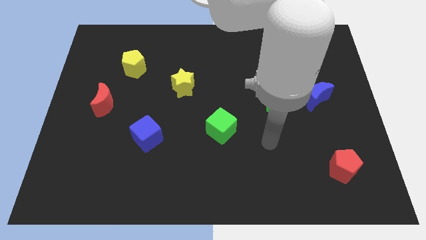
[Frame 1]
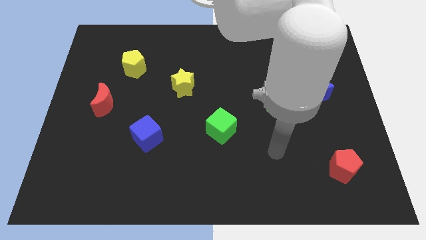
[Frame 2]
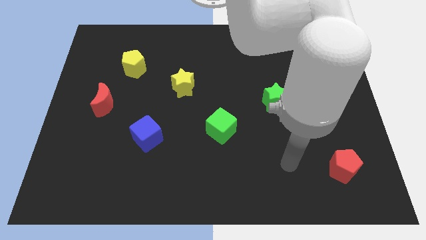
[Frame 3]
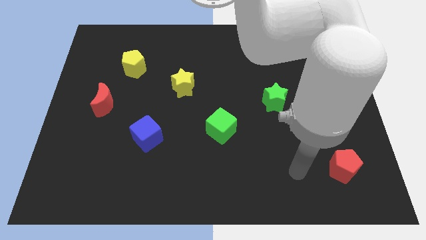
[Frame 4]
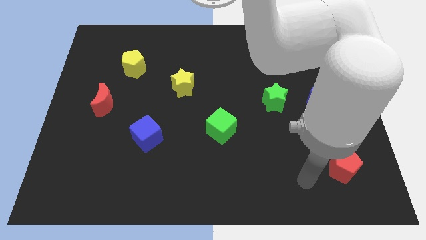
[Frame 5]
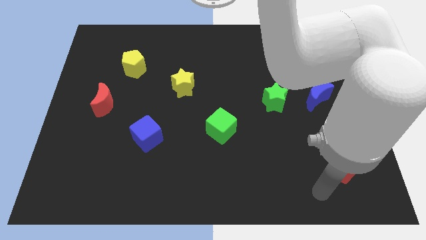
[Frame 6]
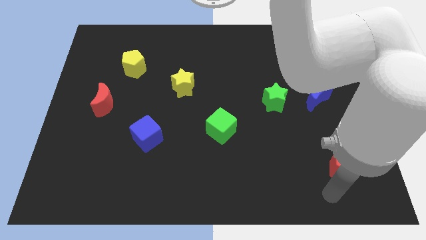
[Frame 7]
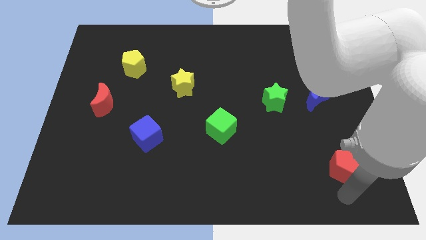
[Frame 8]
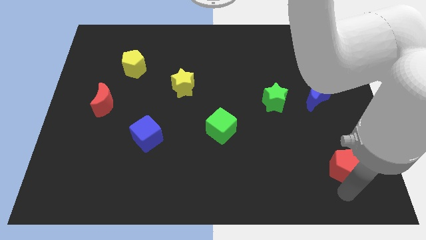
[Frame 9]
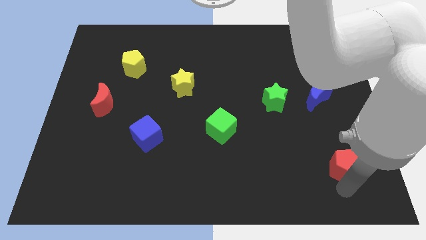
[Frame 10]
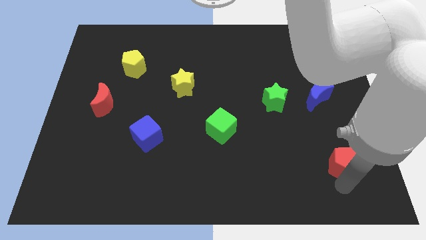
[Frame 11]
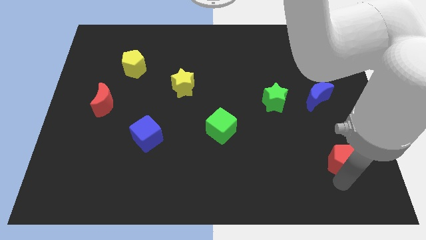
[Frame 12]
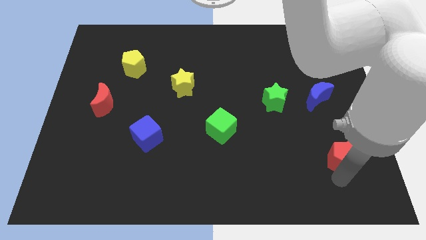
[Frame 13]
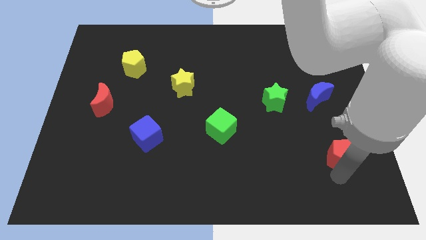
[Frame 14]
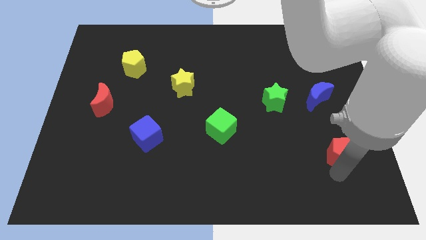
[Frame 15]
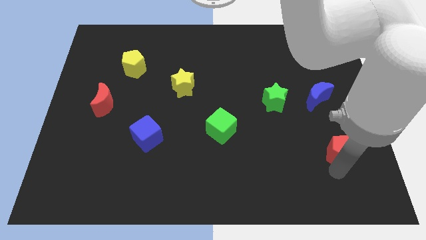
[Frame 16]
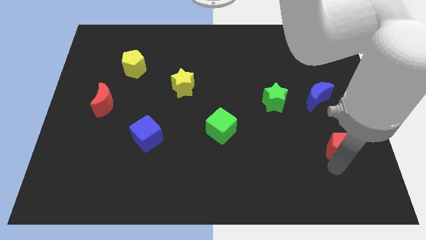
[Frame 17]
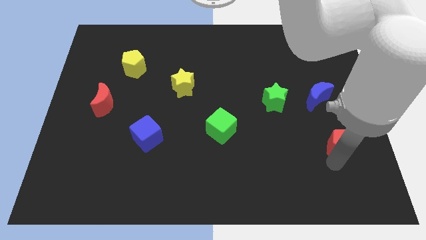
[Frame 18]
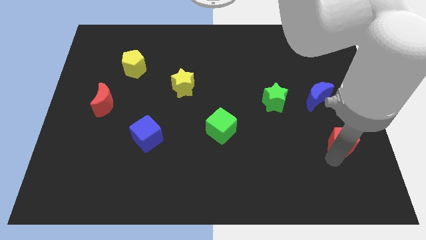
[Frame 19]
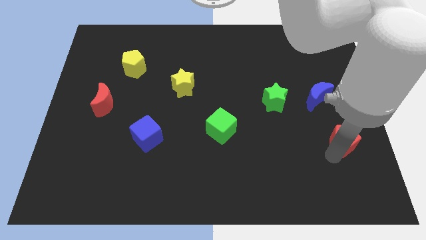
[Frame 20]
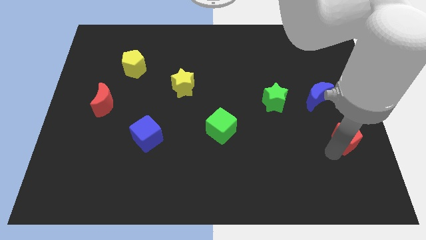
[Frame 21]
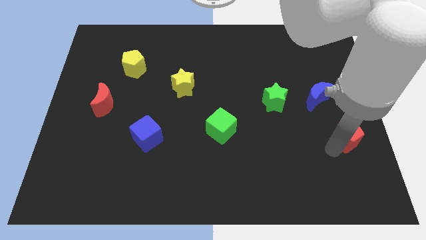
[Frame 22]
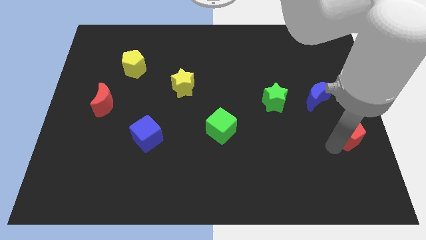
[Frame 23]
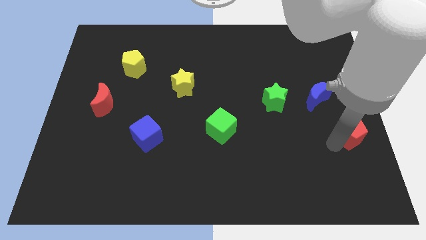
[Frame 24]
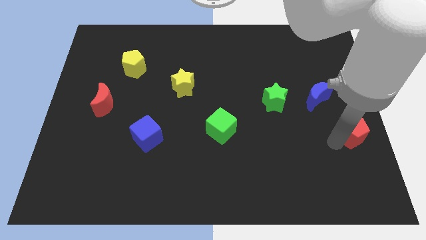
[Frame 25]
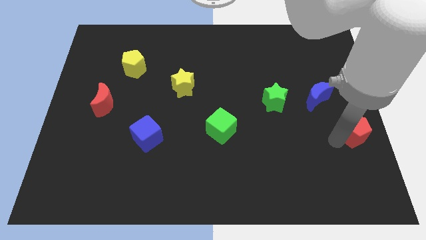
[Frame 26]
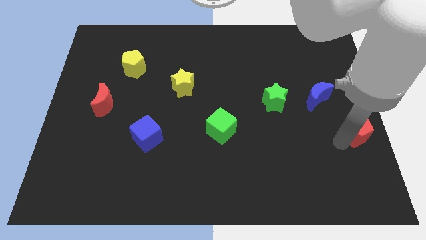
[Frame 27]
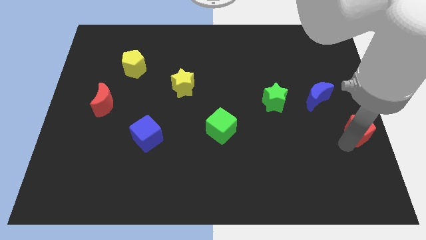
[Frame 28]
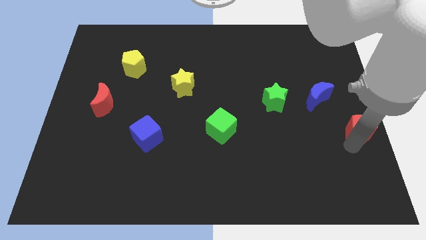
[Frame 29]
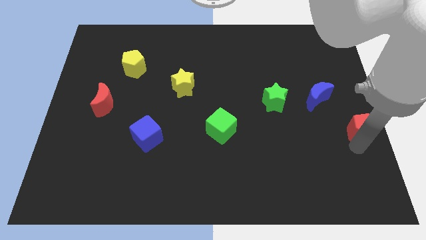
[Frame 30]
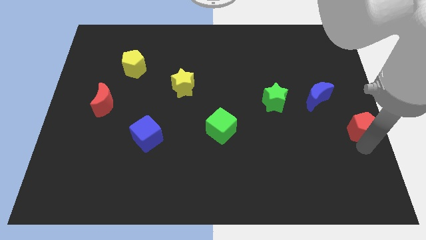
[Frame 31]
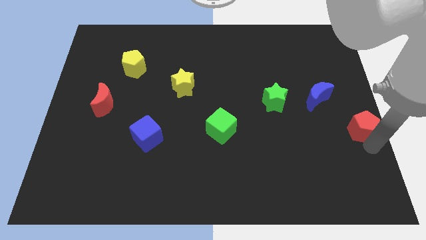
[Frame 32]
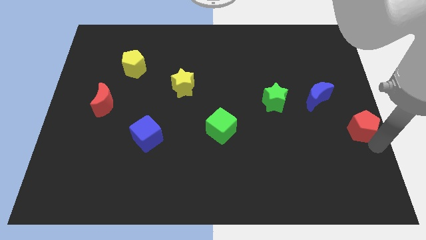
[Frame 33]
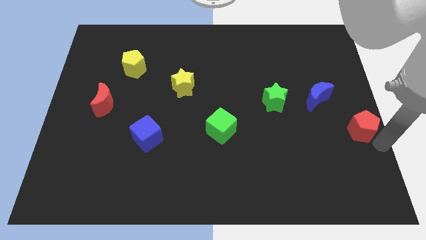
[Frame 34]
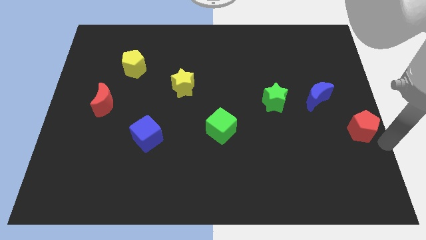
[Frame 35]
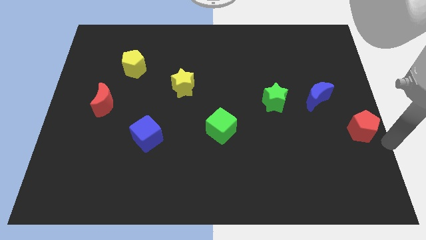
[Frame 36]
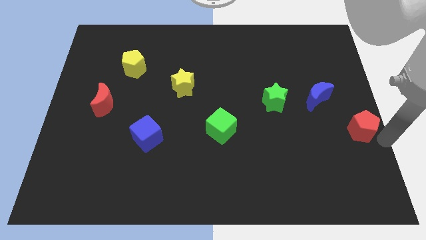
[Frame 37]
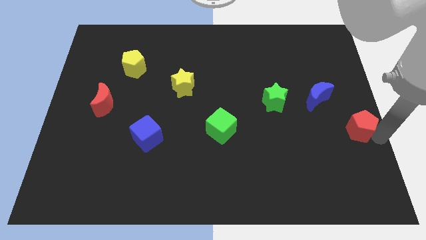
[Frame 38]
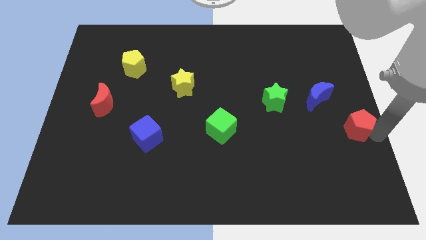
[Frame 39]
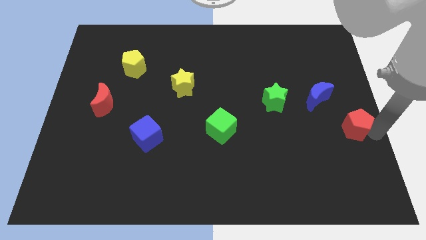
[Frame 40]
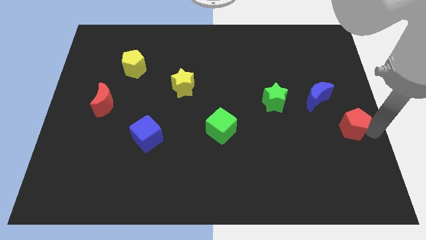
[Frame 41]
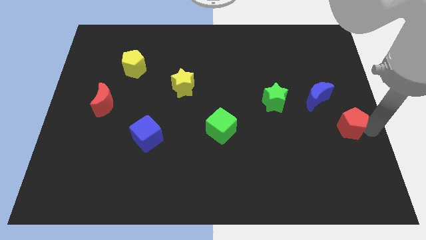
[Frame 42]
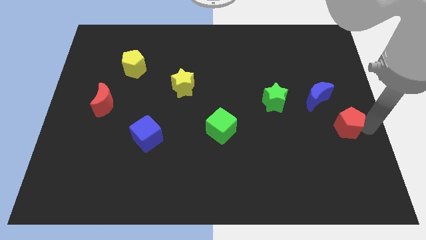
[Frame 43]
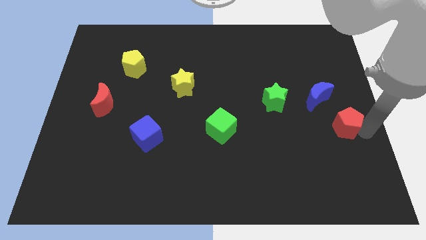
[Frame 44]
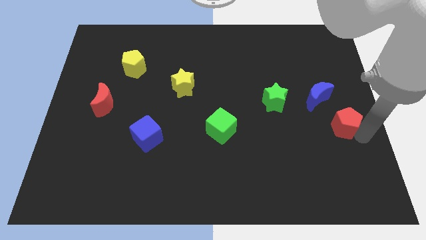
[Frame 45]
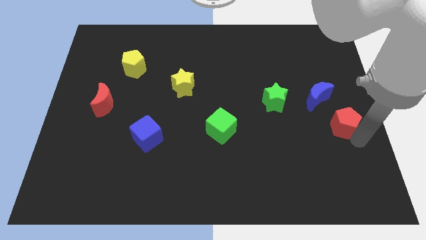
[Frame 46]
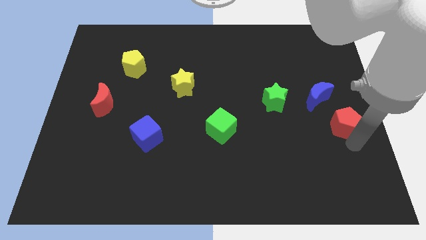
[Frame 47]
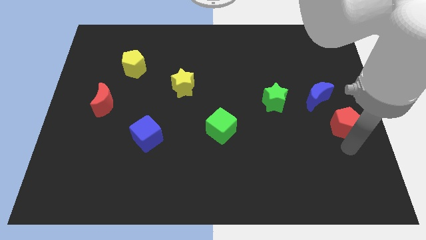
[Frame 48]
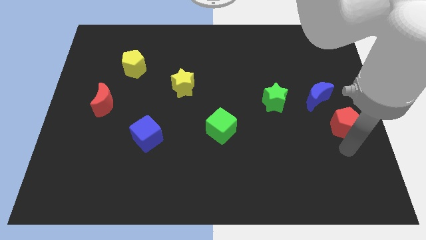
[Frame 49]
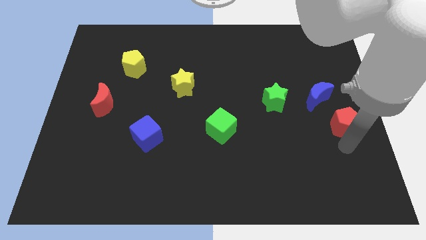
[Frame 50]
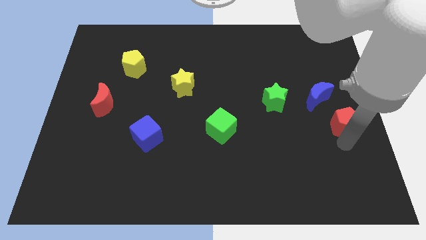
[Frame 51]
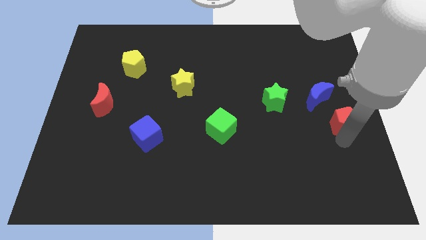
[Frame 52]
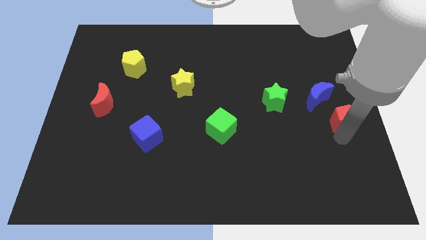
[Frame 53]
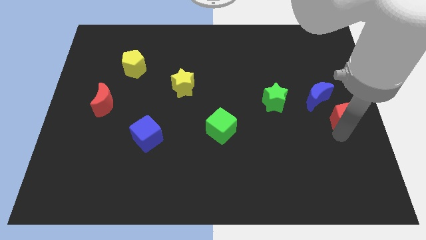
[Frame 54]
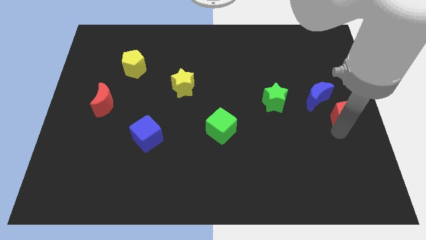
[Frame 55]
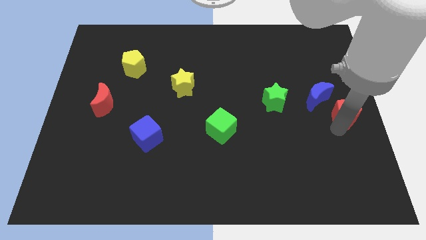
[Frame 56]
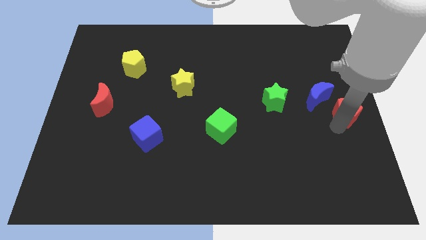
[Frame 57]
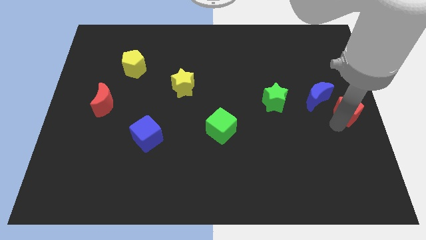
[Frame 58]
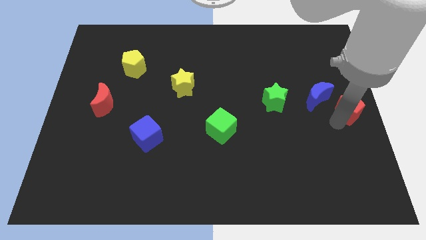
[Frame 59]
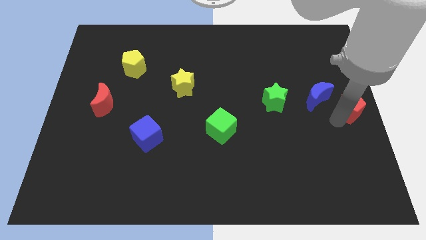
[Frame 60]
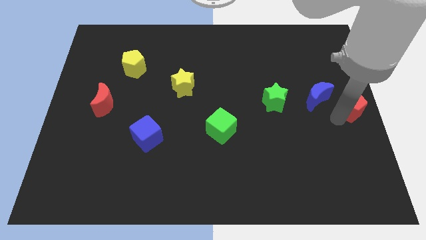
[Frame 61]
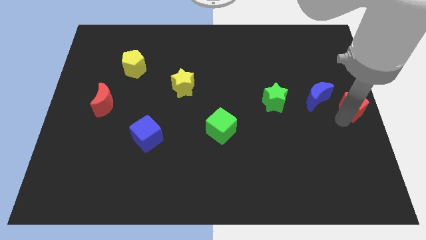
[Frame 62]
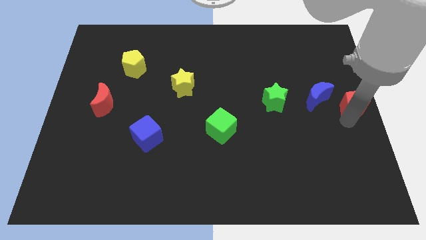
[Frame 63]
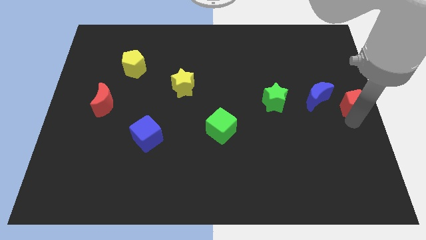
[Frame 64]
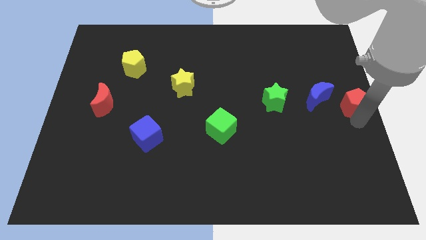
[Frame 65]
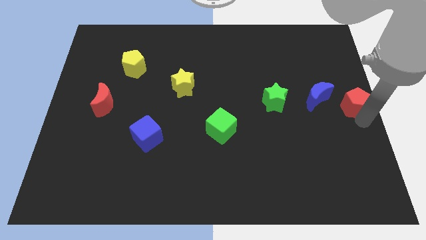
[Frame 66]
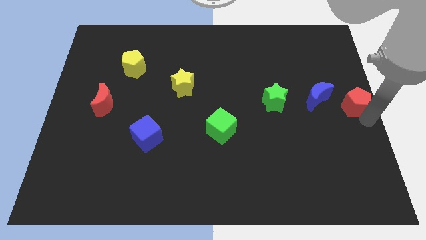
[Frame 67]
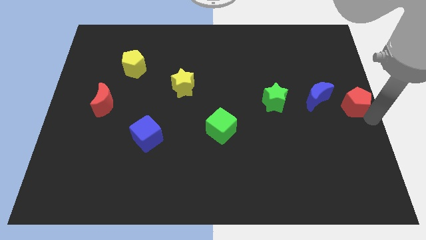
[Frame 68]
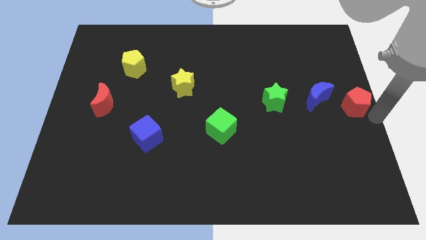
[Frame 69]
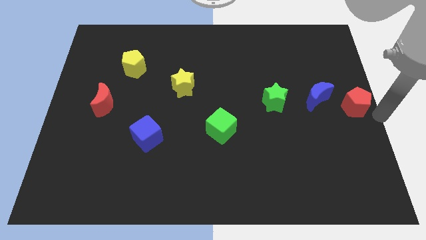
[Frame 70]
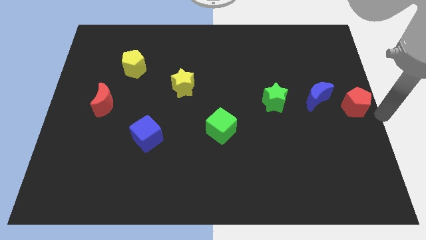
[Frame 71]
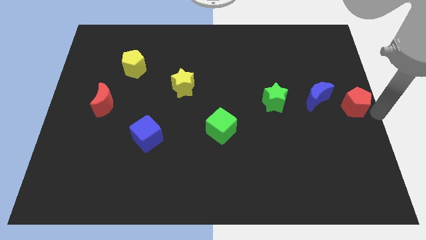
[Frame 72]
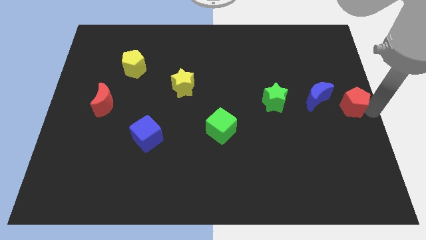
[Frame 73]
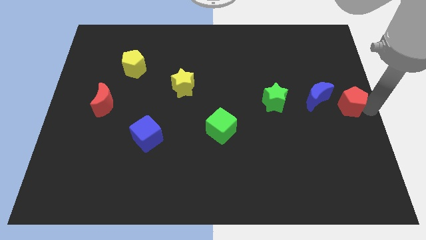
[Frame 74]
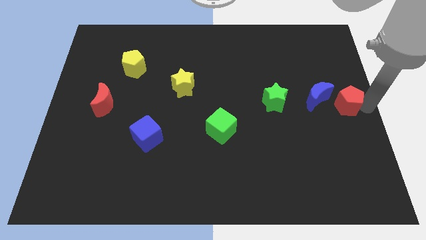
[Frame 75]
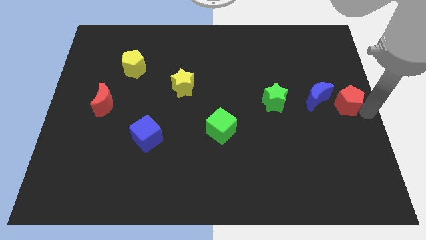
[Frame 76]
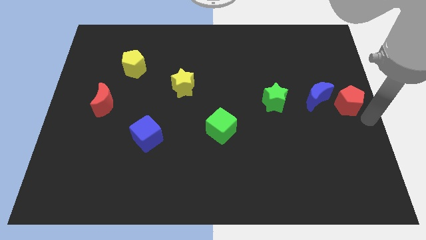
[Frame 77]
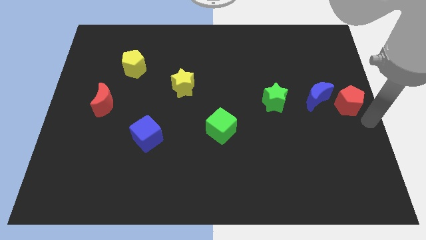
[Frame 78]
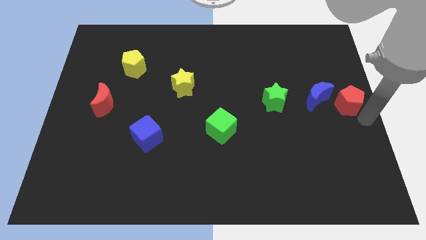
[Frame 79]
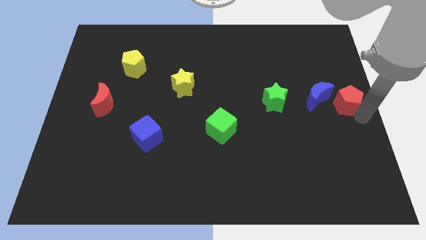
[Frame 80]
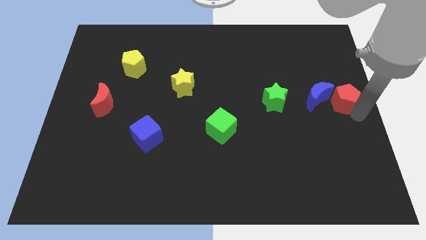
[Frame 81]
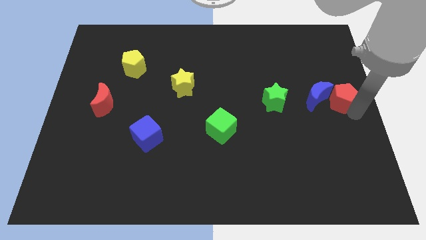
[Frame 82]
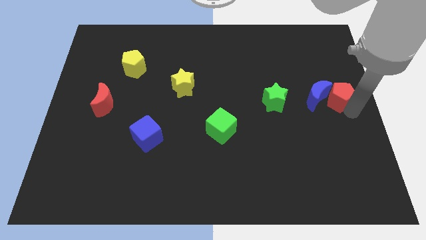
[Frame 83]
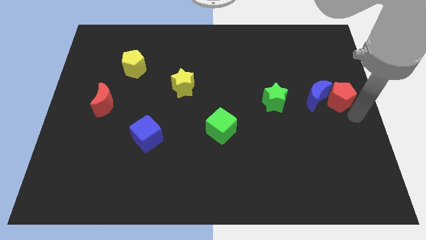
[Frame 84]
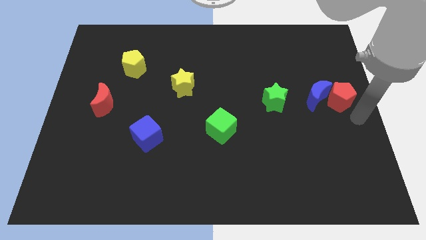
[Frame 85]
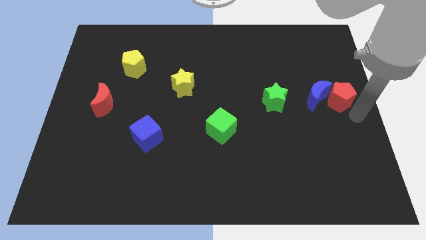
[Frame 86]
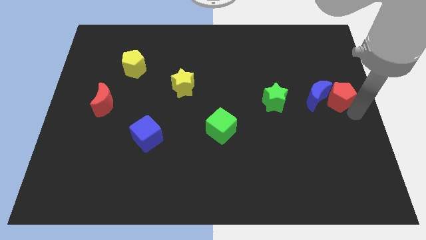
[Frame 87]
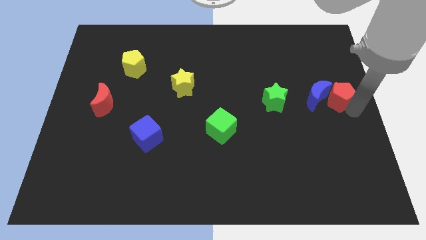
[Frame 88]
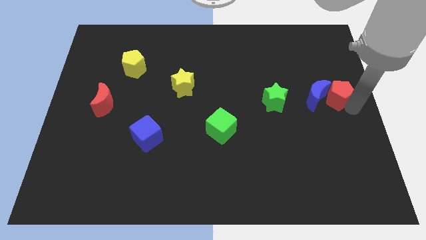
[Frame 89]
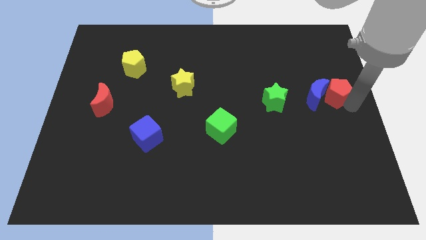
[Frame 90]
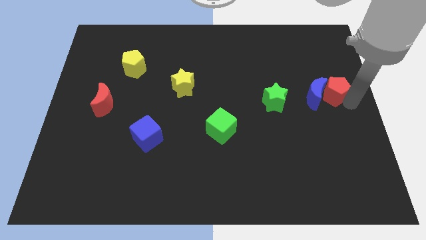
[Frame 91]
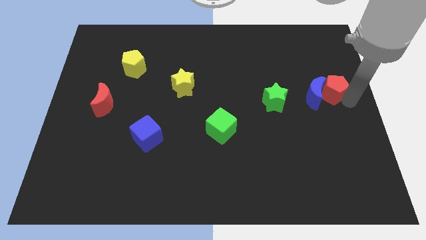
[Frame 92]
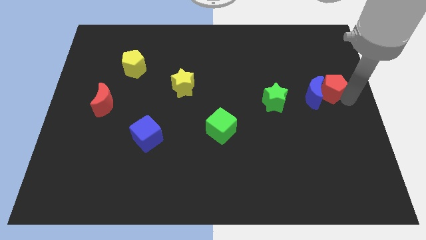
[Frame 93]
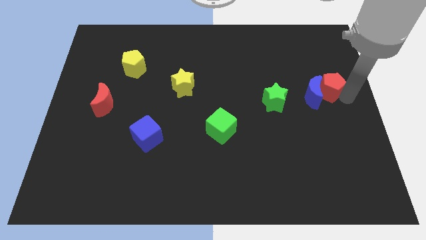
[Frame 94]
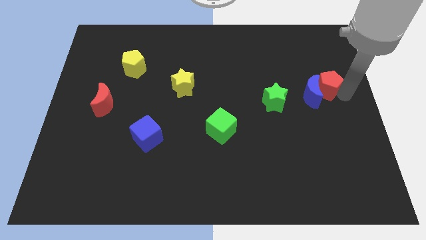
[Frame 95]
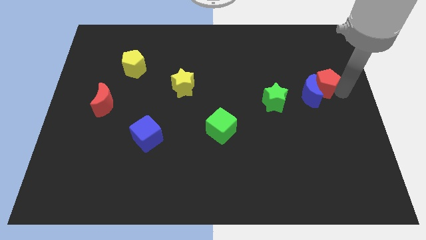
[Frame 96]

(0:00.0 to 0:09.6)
put the red pentagon above the blue moon
